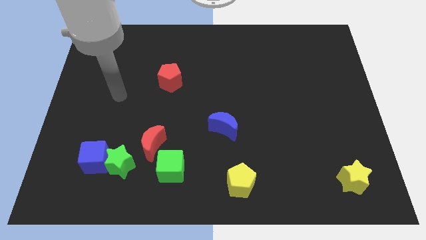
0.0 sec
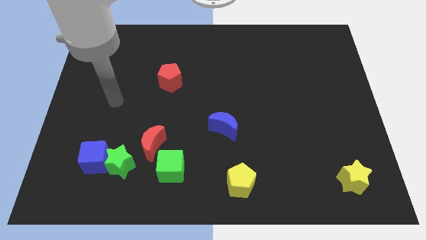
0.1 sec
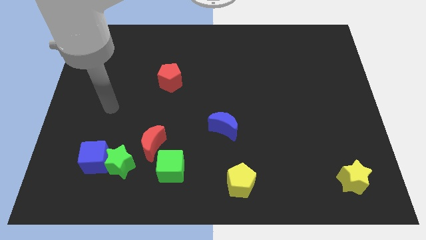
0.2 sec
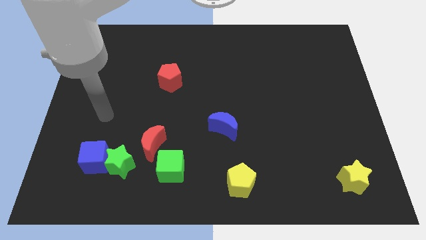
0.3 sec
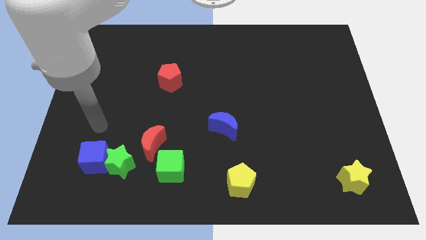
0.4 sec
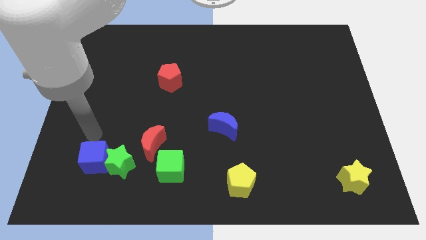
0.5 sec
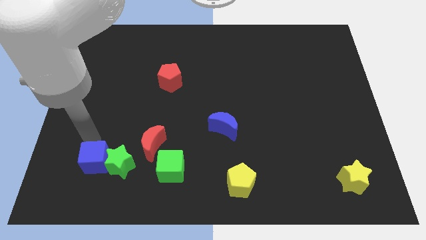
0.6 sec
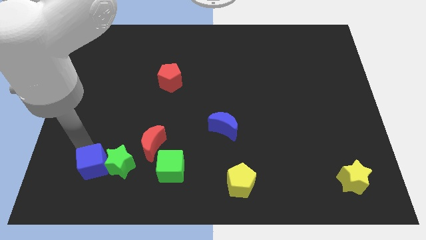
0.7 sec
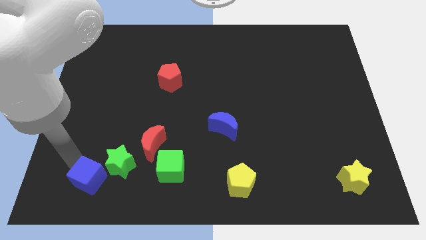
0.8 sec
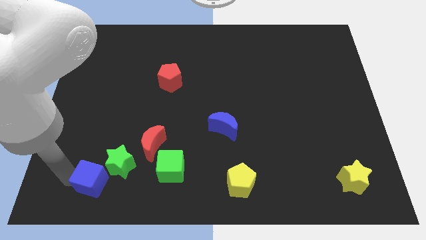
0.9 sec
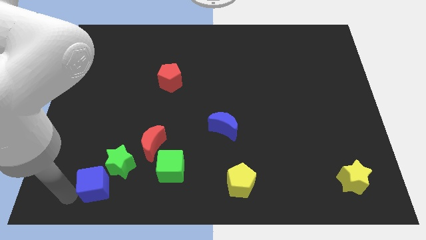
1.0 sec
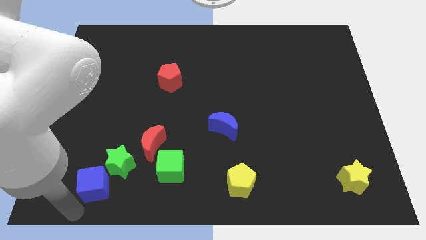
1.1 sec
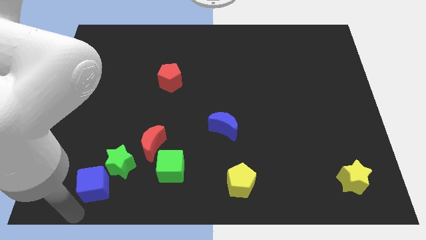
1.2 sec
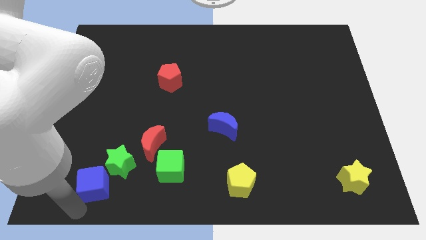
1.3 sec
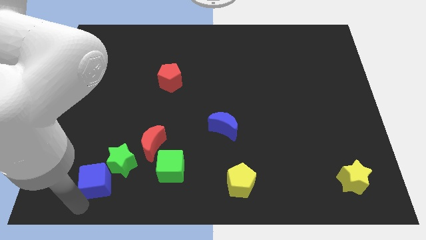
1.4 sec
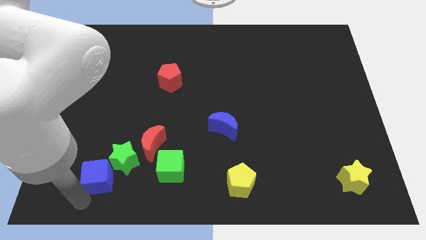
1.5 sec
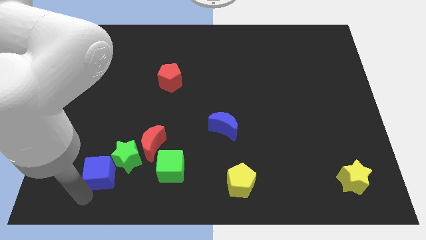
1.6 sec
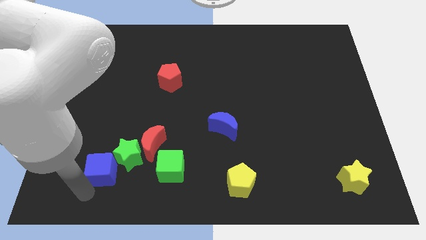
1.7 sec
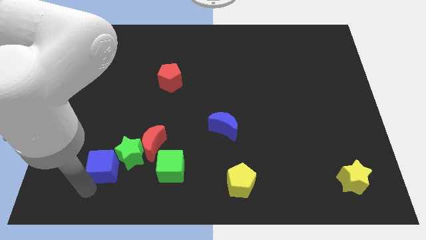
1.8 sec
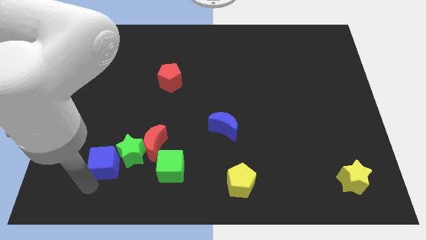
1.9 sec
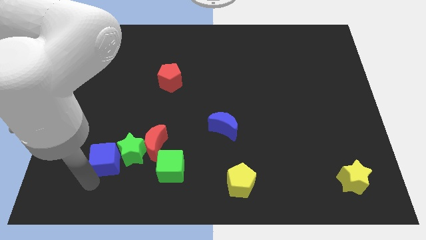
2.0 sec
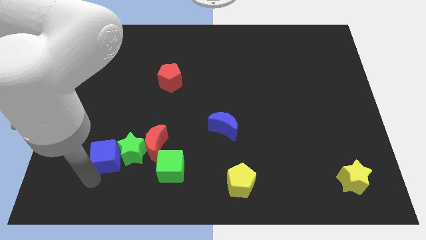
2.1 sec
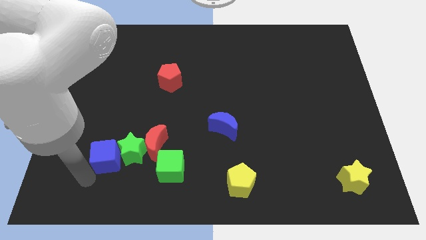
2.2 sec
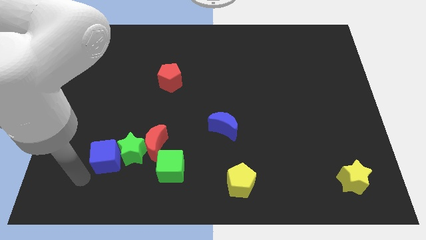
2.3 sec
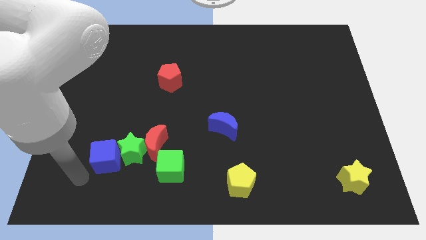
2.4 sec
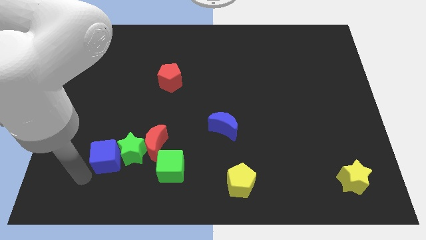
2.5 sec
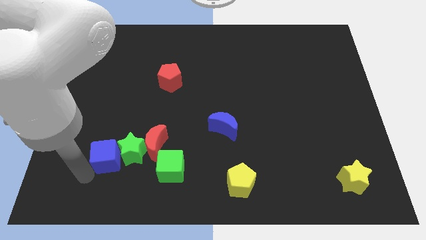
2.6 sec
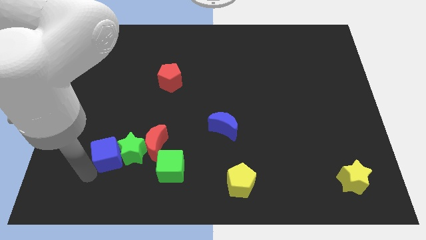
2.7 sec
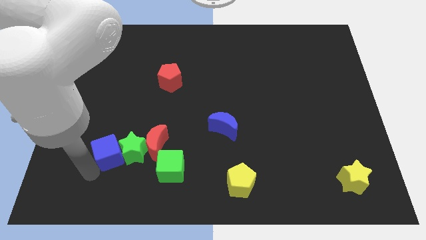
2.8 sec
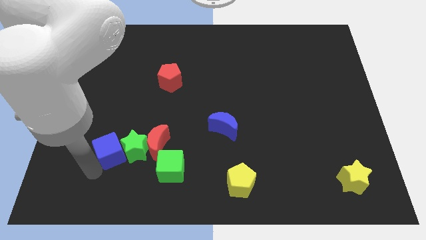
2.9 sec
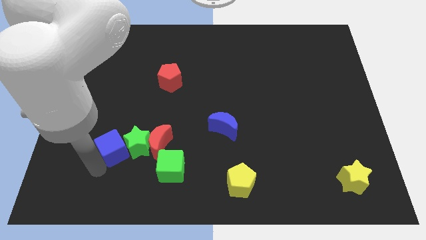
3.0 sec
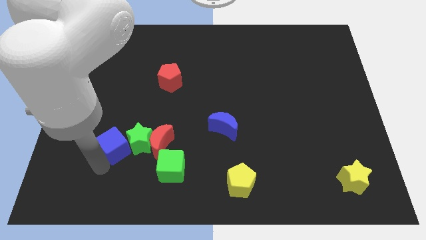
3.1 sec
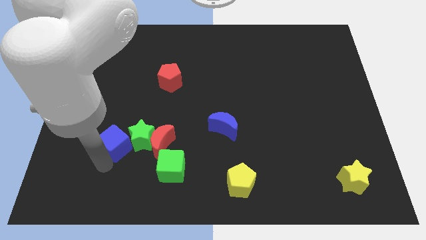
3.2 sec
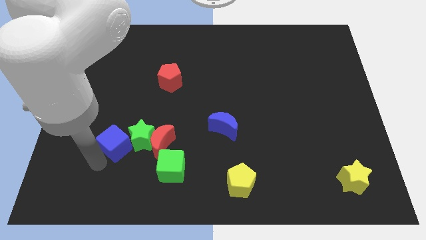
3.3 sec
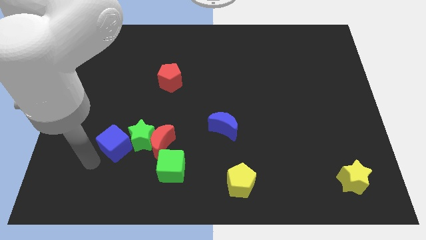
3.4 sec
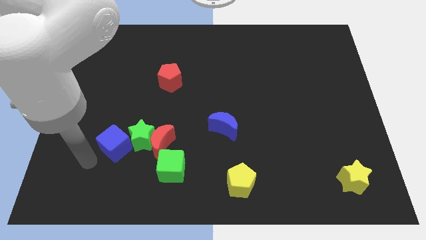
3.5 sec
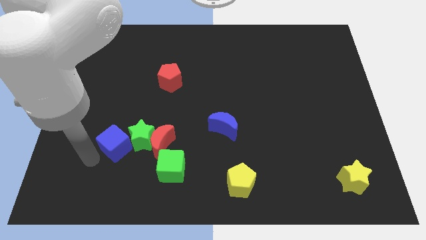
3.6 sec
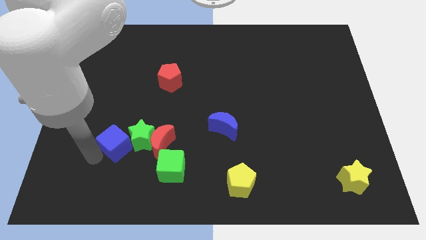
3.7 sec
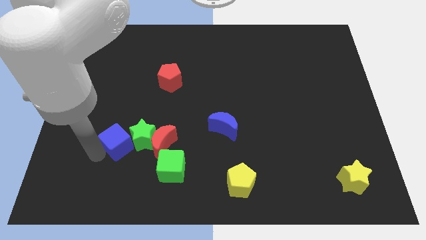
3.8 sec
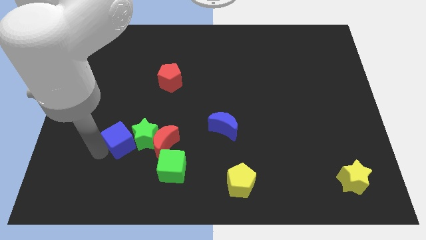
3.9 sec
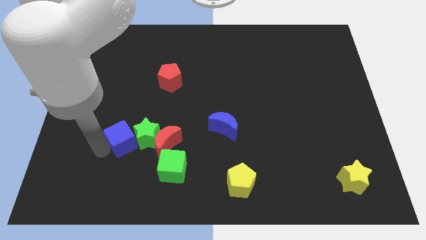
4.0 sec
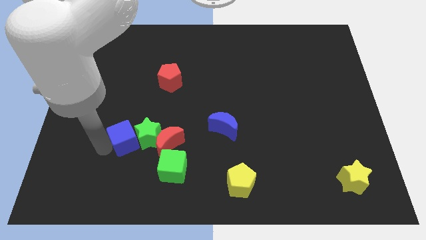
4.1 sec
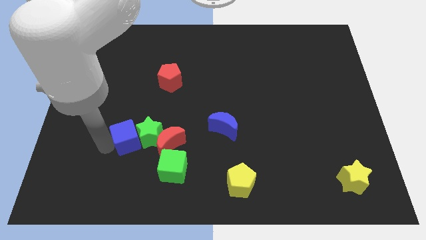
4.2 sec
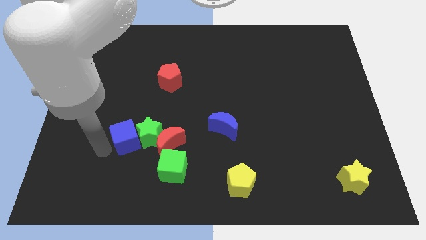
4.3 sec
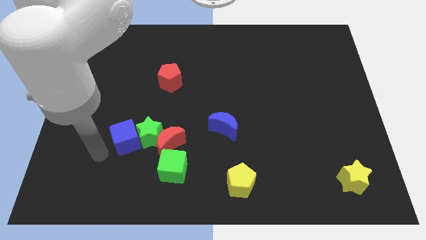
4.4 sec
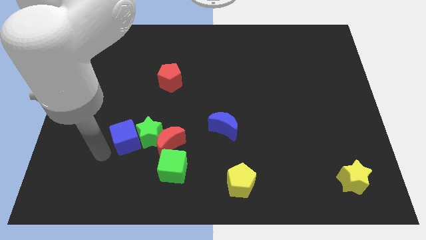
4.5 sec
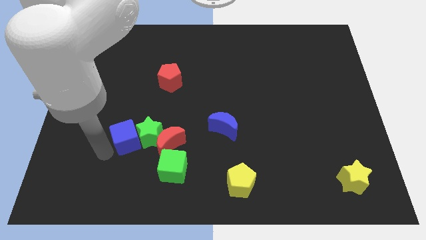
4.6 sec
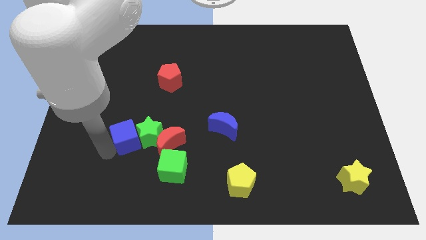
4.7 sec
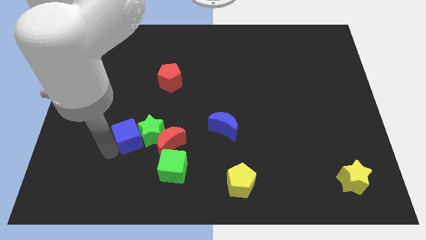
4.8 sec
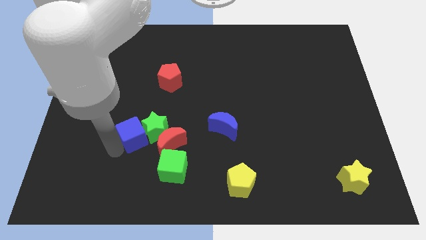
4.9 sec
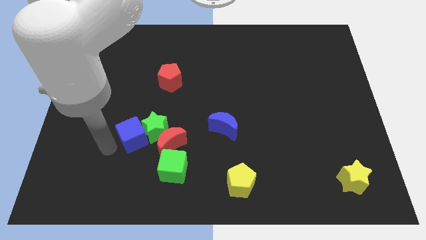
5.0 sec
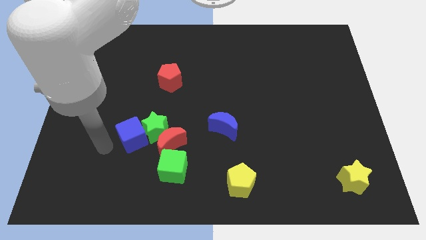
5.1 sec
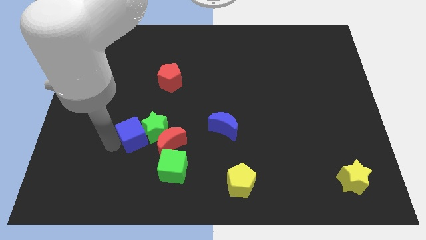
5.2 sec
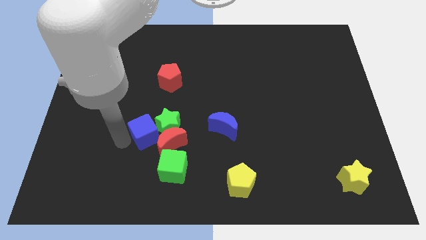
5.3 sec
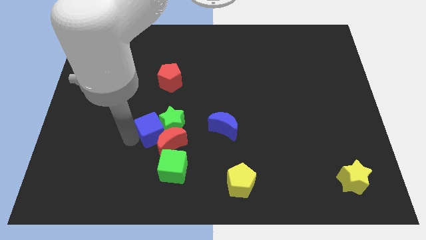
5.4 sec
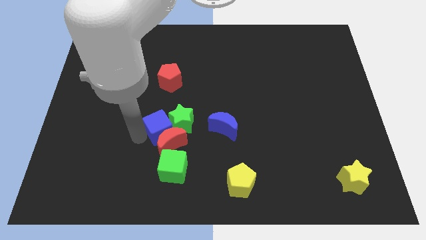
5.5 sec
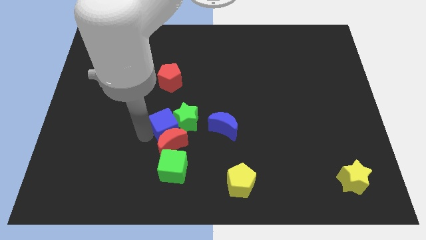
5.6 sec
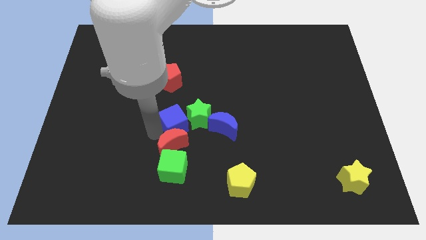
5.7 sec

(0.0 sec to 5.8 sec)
slide the blue cube to the middle of the board

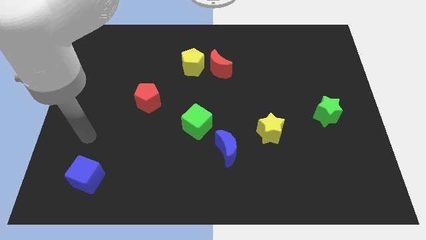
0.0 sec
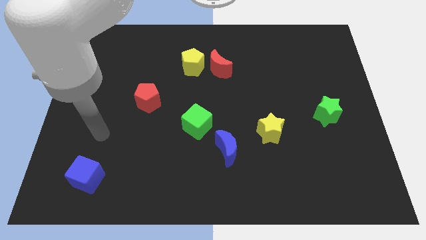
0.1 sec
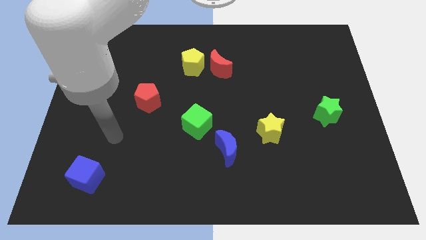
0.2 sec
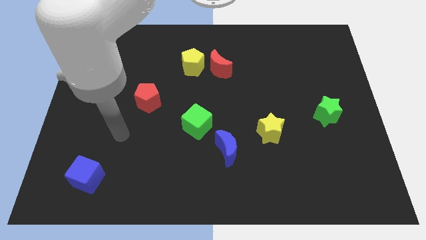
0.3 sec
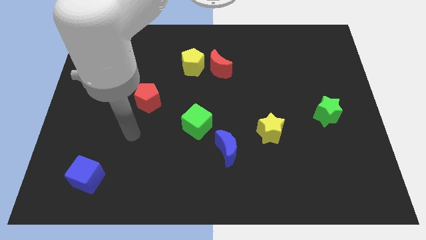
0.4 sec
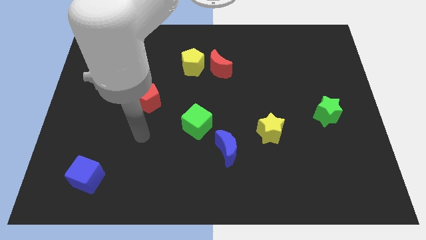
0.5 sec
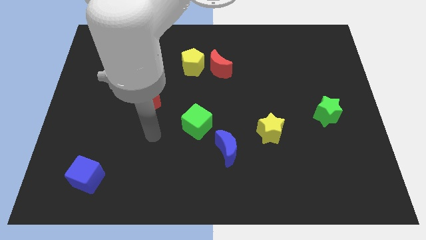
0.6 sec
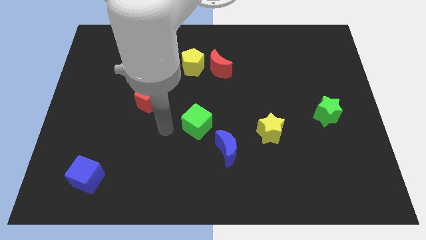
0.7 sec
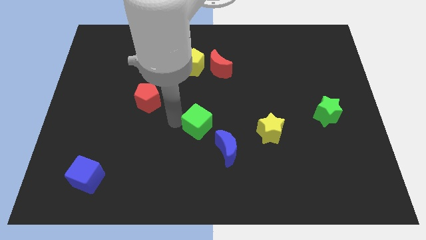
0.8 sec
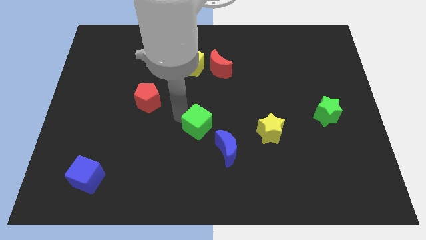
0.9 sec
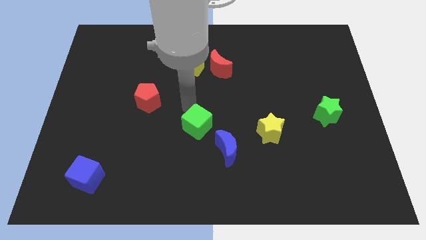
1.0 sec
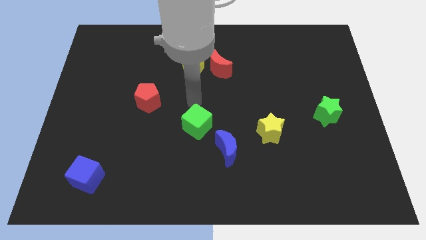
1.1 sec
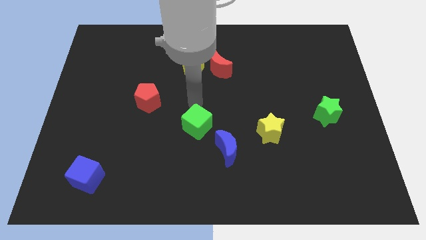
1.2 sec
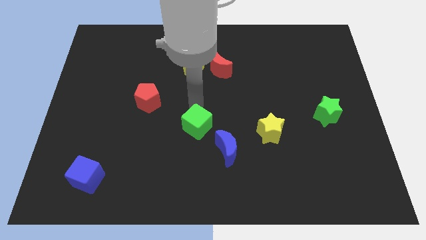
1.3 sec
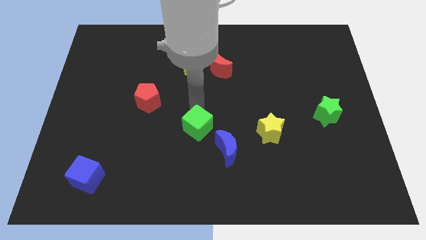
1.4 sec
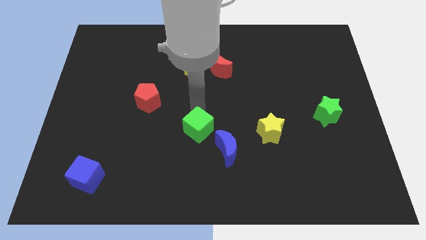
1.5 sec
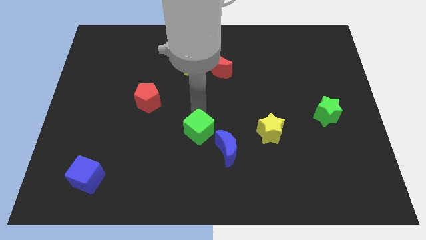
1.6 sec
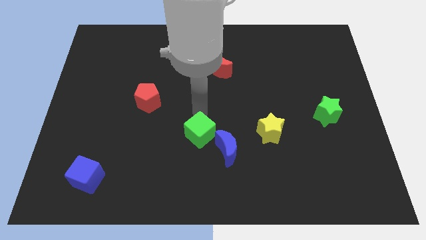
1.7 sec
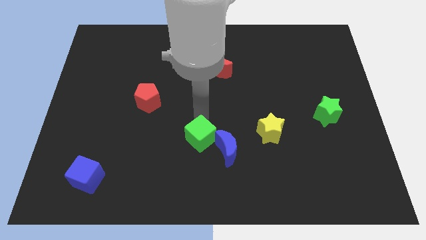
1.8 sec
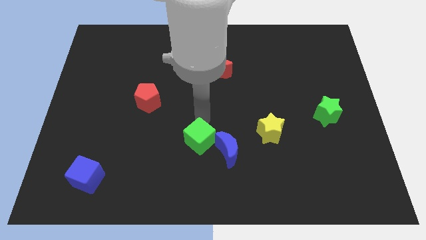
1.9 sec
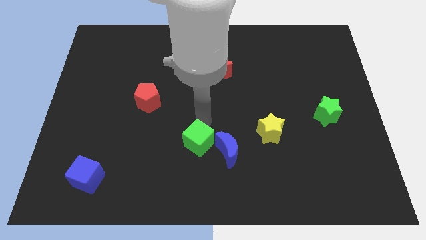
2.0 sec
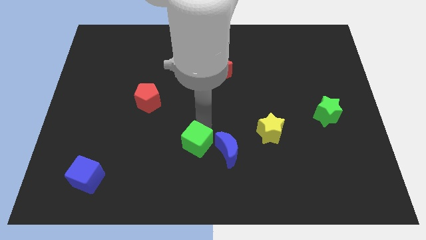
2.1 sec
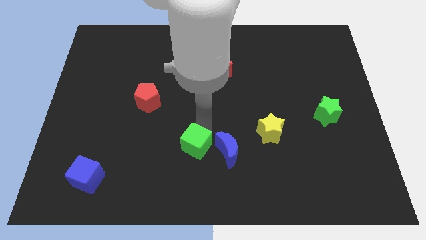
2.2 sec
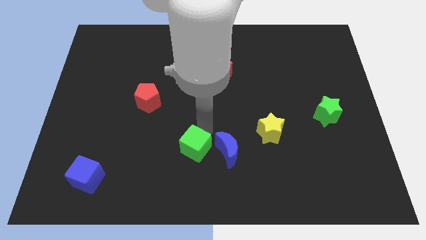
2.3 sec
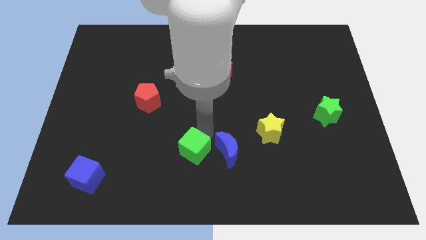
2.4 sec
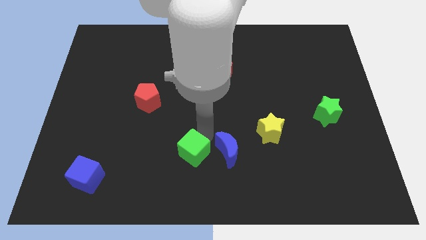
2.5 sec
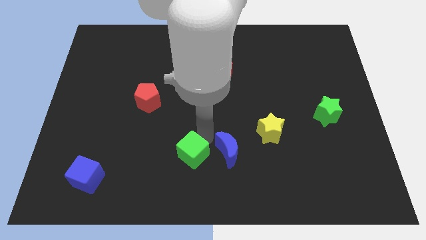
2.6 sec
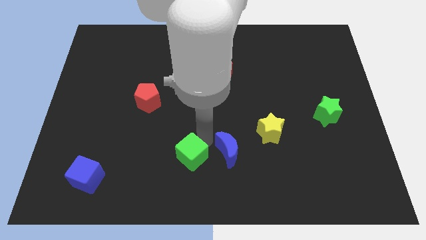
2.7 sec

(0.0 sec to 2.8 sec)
slide the green cube to the bottom side
